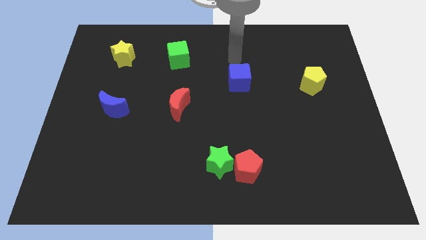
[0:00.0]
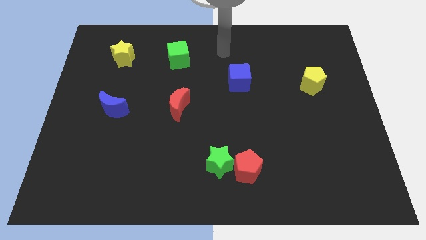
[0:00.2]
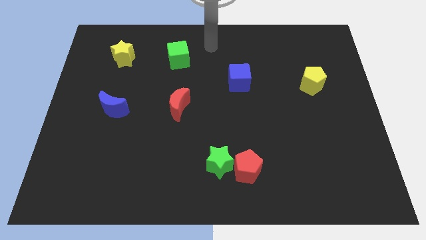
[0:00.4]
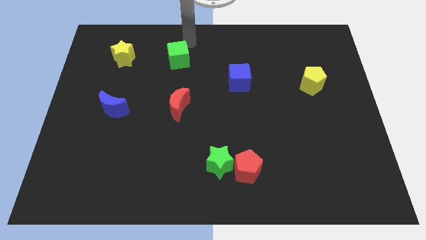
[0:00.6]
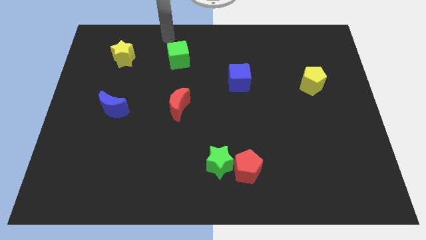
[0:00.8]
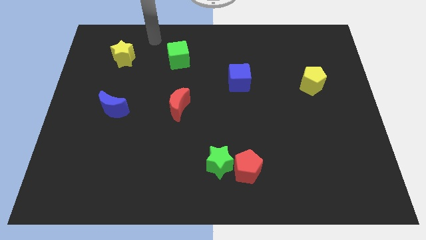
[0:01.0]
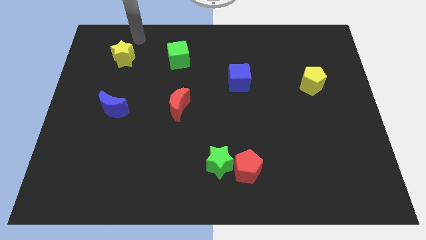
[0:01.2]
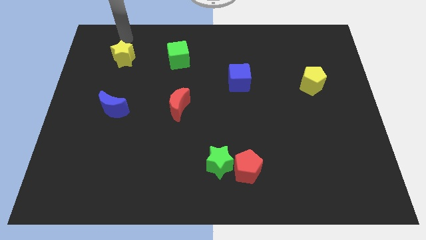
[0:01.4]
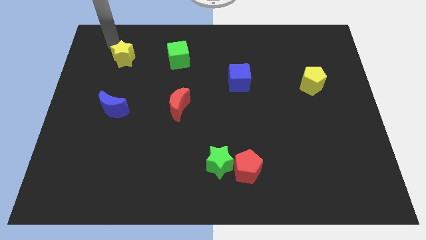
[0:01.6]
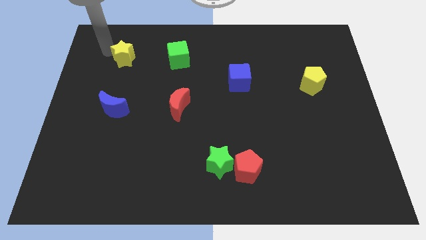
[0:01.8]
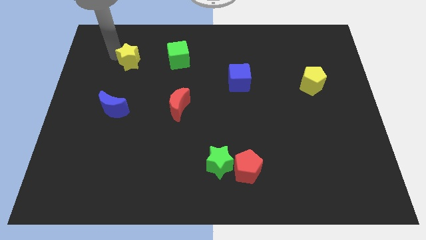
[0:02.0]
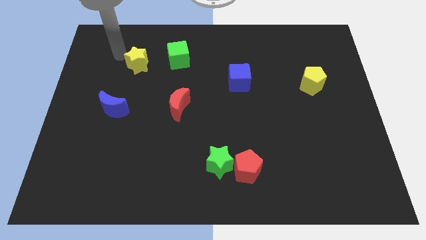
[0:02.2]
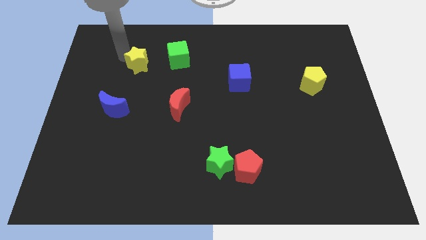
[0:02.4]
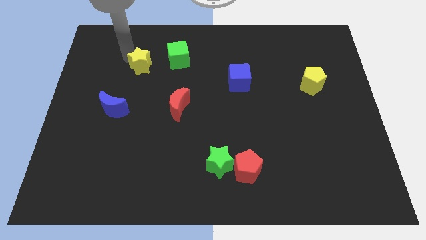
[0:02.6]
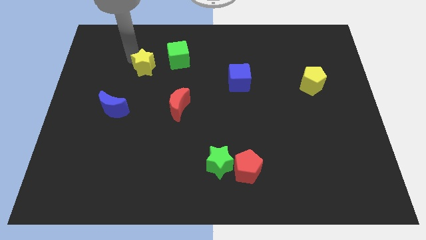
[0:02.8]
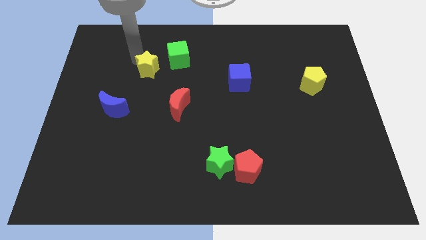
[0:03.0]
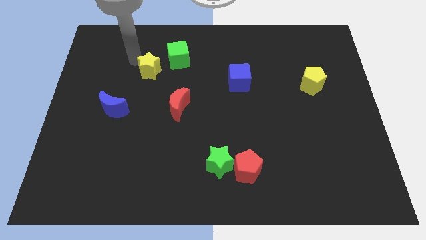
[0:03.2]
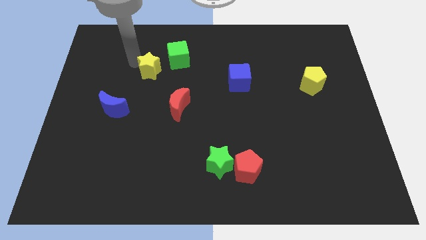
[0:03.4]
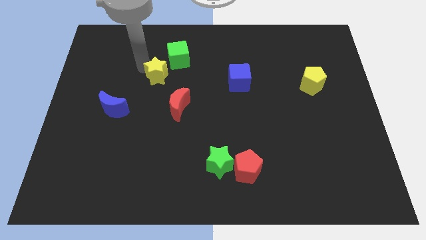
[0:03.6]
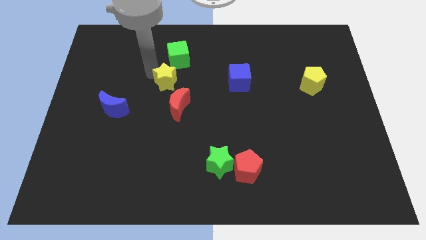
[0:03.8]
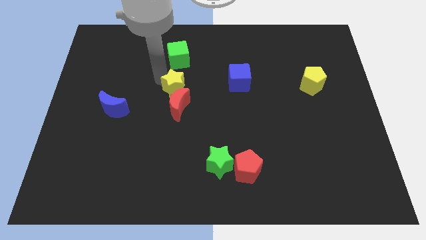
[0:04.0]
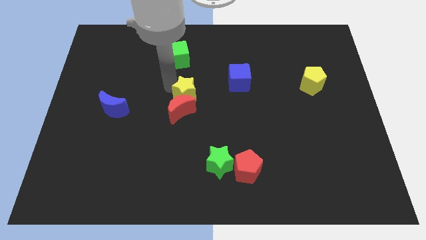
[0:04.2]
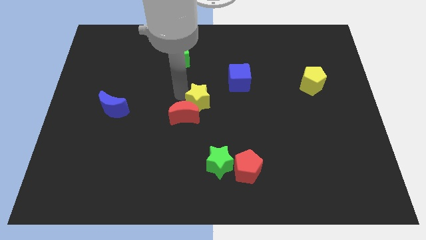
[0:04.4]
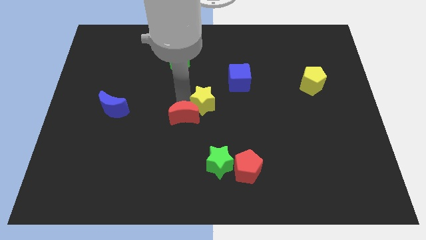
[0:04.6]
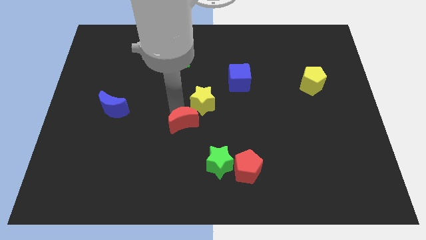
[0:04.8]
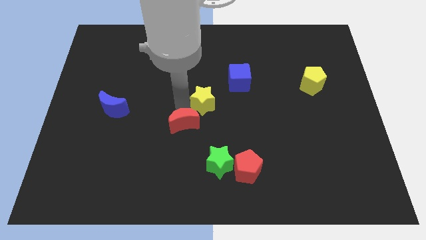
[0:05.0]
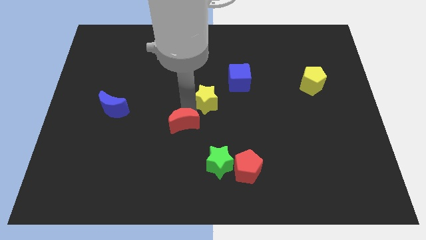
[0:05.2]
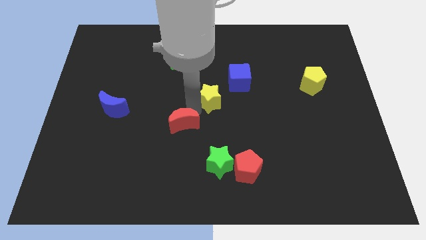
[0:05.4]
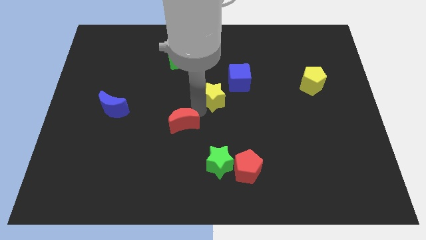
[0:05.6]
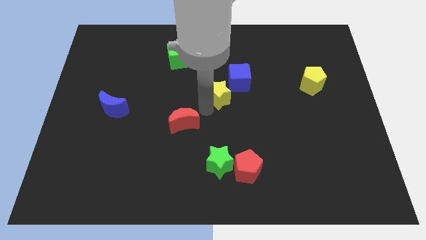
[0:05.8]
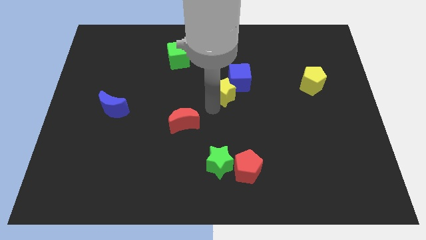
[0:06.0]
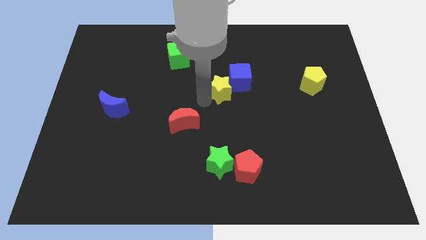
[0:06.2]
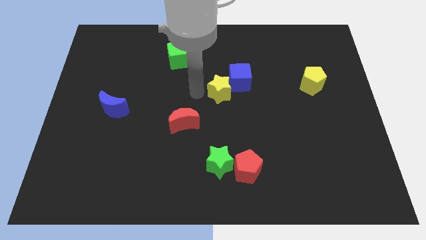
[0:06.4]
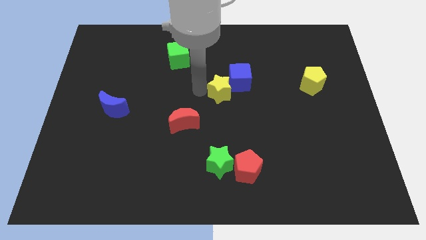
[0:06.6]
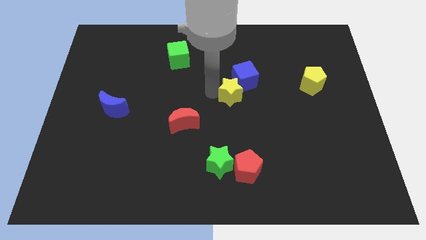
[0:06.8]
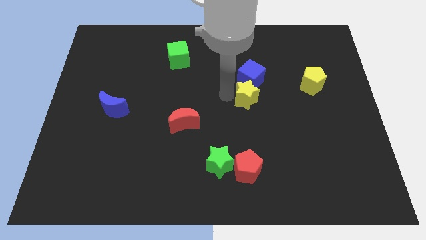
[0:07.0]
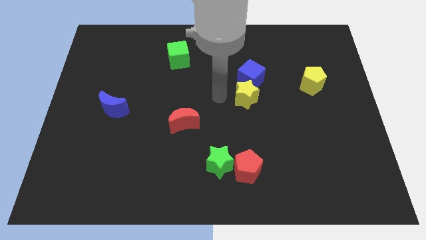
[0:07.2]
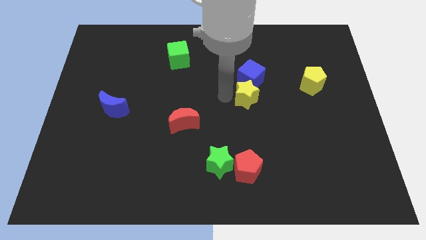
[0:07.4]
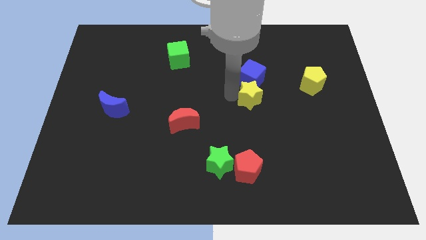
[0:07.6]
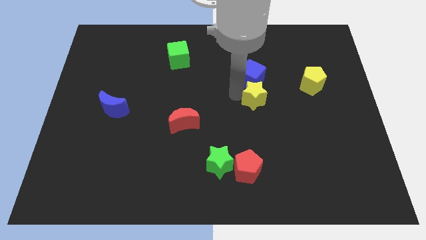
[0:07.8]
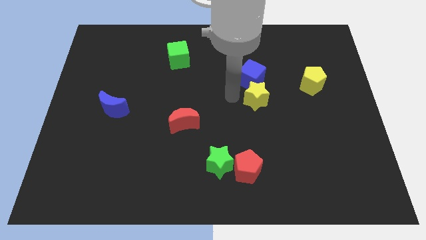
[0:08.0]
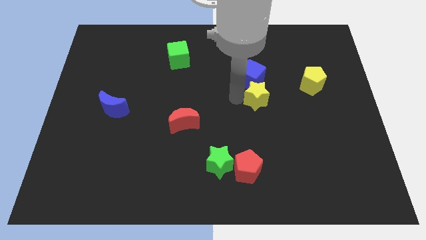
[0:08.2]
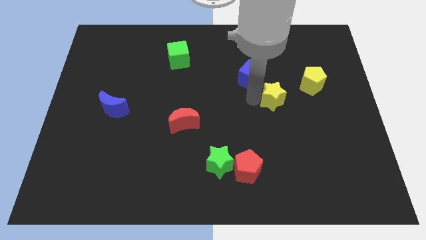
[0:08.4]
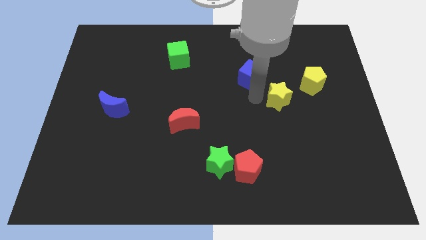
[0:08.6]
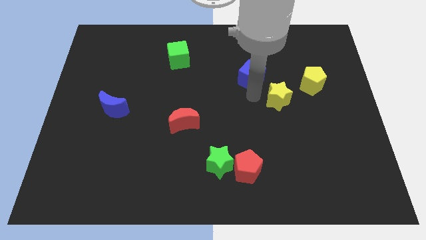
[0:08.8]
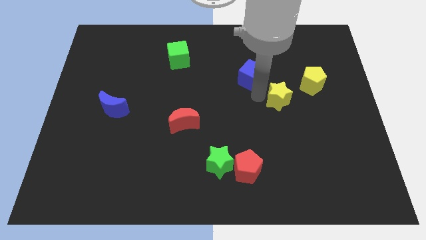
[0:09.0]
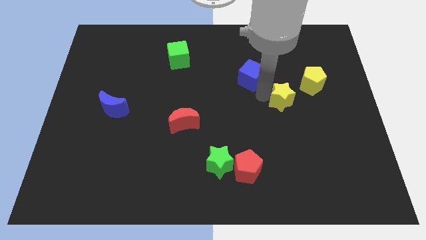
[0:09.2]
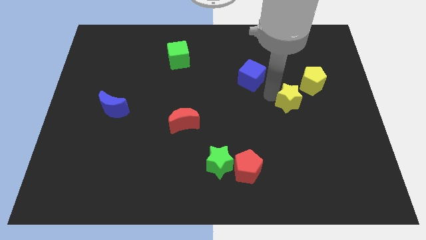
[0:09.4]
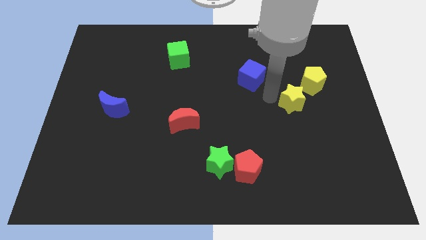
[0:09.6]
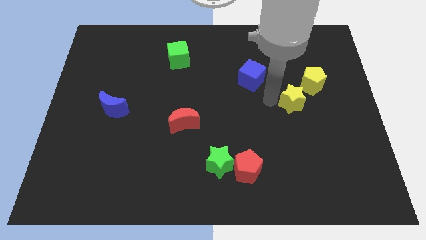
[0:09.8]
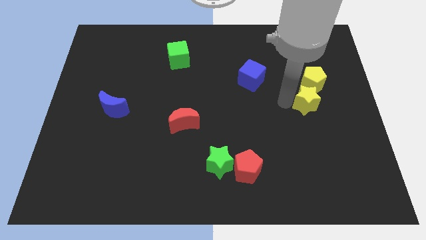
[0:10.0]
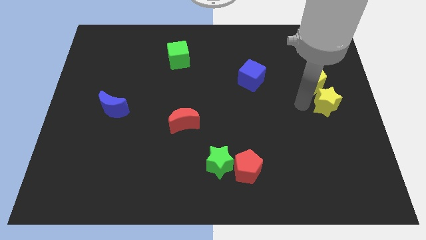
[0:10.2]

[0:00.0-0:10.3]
move the yellow star to the right side

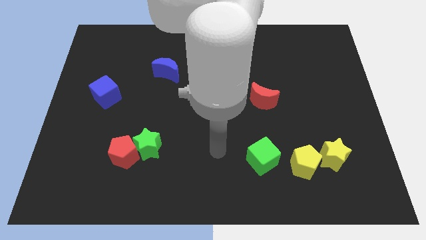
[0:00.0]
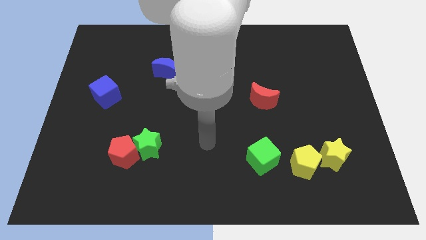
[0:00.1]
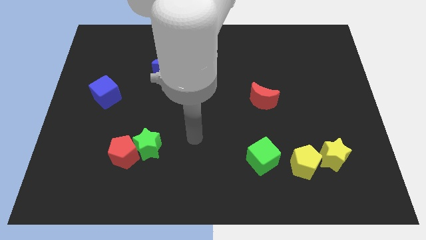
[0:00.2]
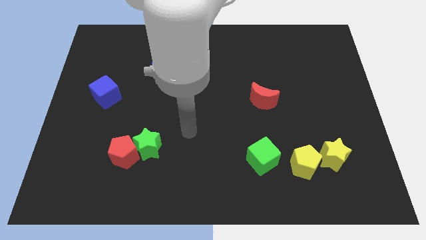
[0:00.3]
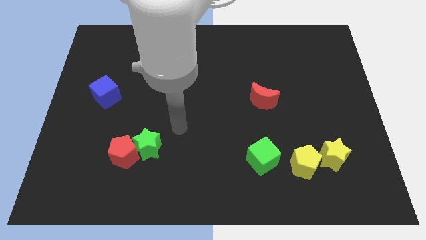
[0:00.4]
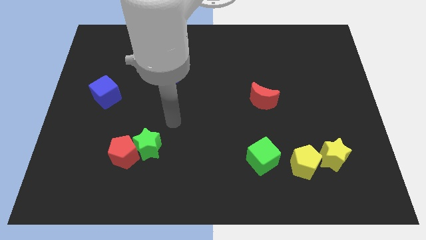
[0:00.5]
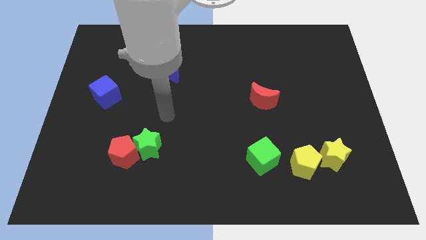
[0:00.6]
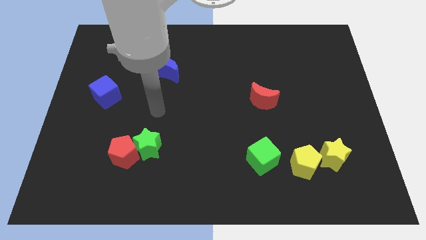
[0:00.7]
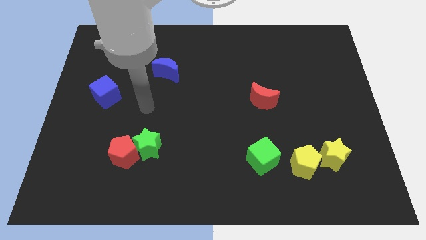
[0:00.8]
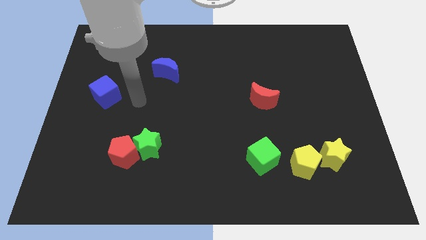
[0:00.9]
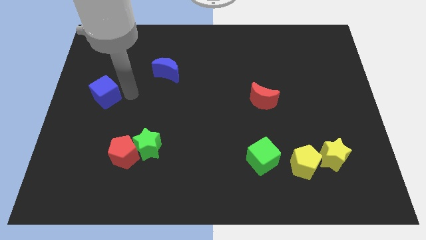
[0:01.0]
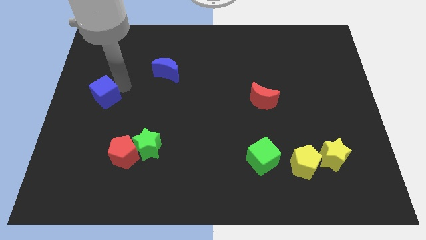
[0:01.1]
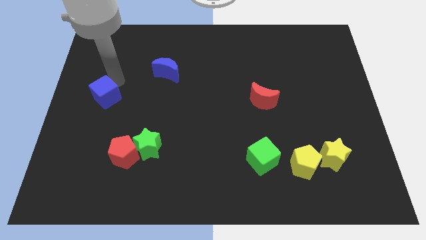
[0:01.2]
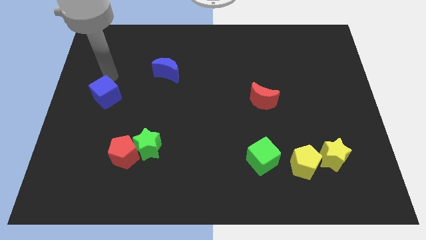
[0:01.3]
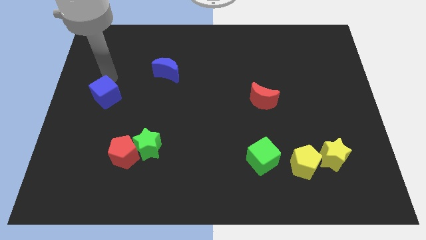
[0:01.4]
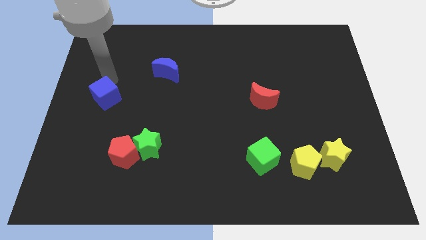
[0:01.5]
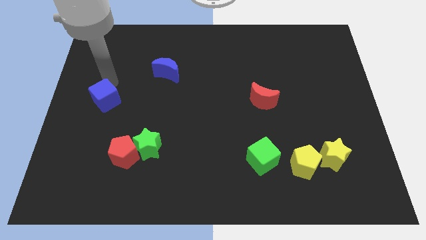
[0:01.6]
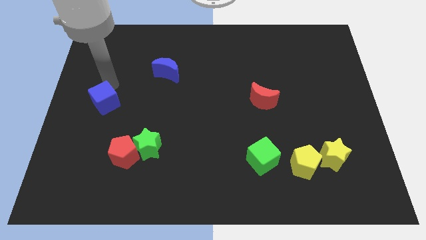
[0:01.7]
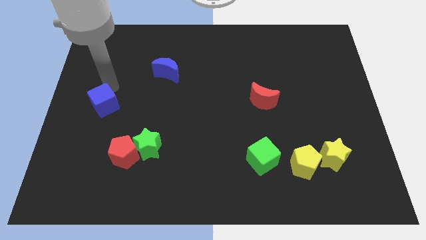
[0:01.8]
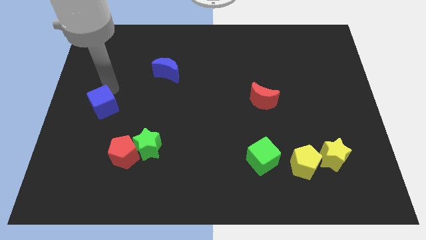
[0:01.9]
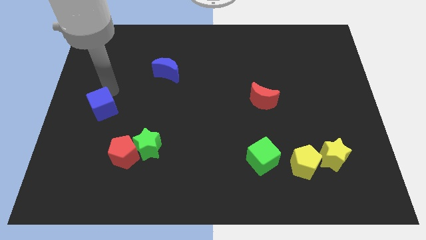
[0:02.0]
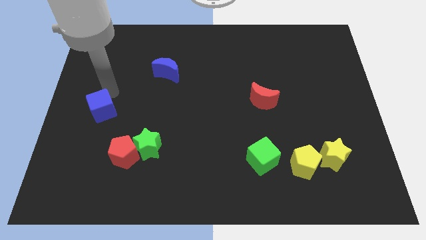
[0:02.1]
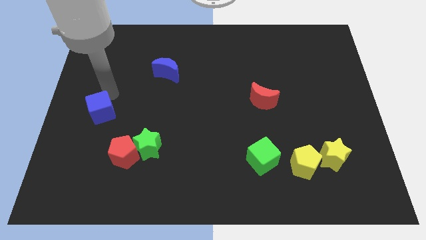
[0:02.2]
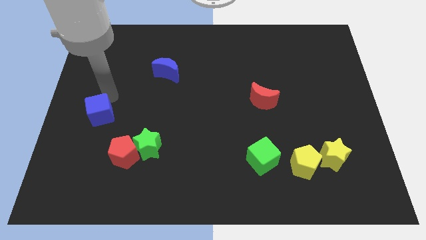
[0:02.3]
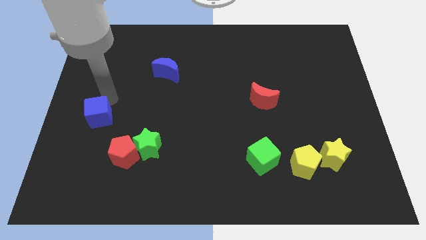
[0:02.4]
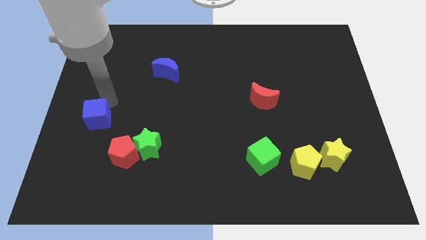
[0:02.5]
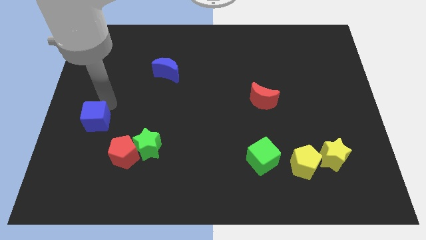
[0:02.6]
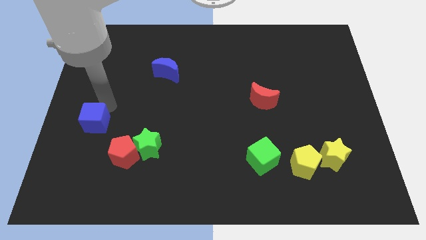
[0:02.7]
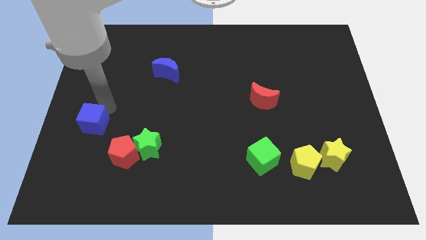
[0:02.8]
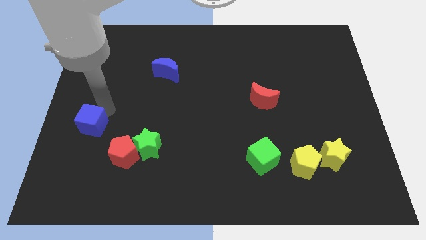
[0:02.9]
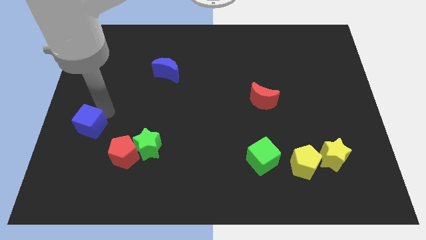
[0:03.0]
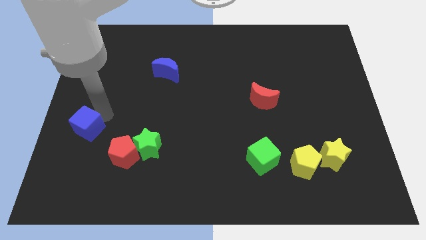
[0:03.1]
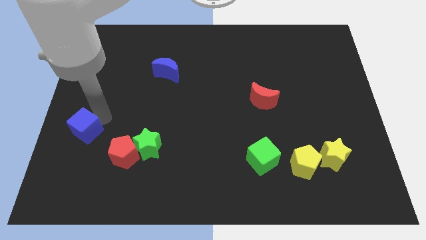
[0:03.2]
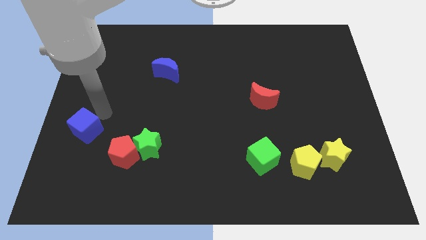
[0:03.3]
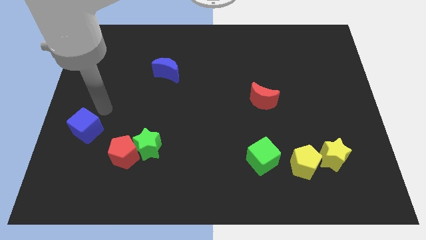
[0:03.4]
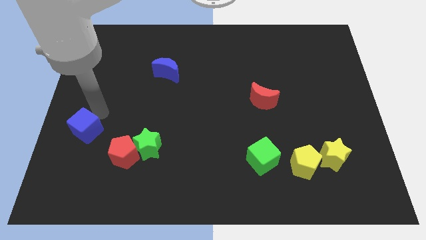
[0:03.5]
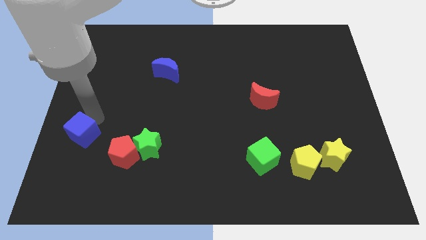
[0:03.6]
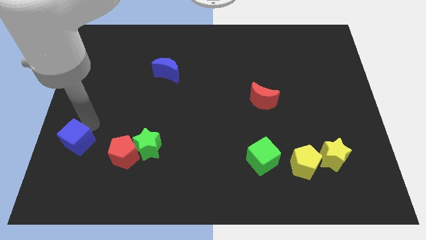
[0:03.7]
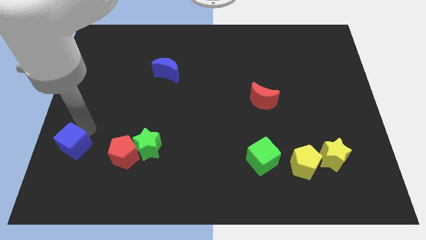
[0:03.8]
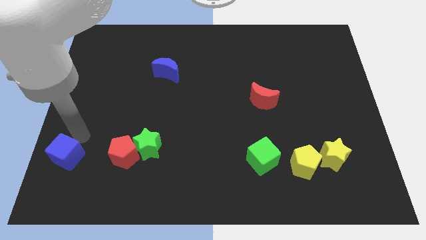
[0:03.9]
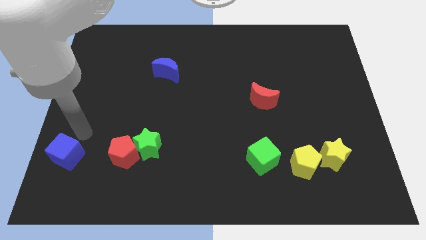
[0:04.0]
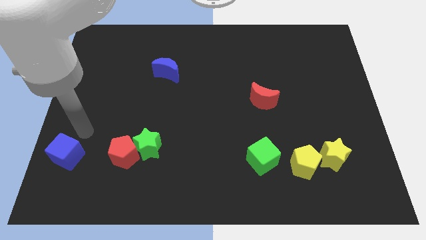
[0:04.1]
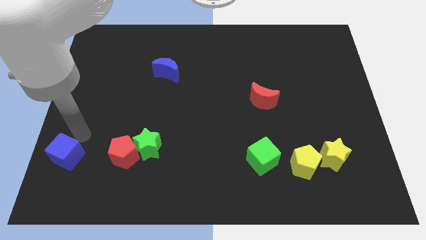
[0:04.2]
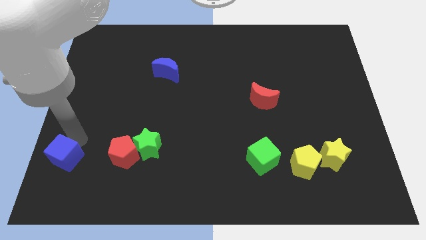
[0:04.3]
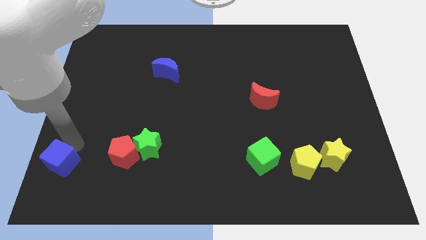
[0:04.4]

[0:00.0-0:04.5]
slide the blue cube to the bottom left of the board
